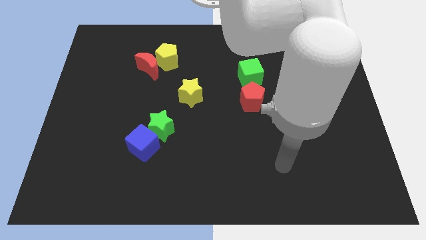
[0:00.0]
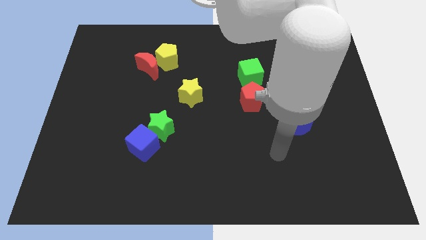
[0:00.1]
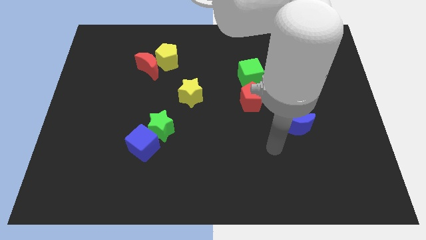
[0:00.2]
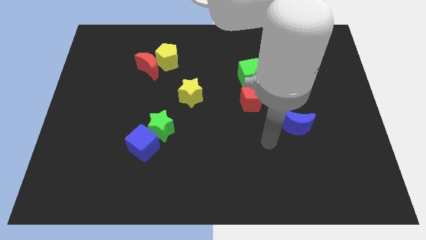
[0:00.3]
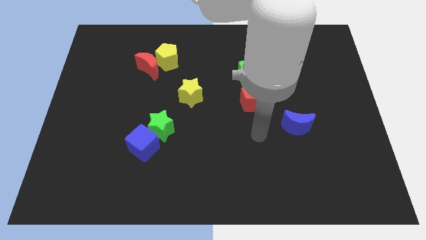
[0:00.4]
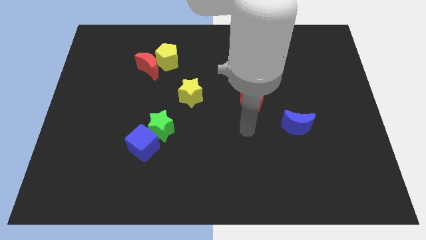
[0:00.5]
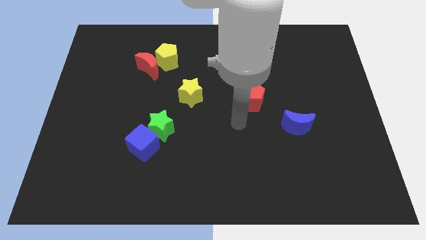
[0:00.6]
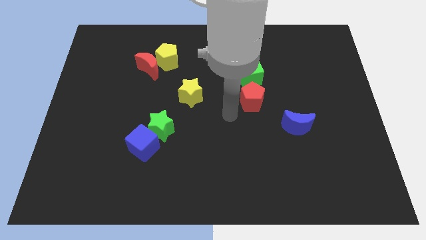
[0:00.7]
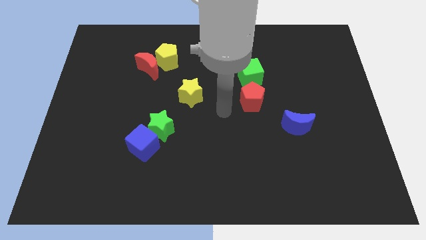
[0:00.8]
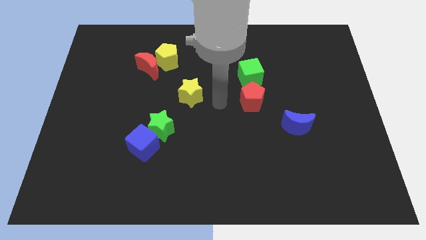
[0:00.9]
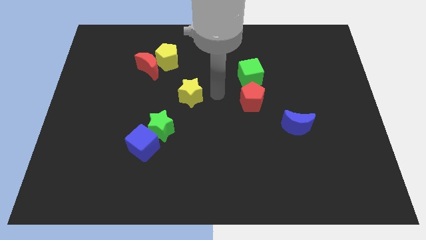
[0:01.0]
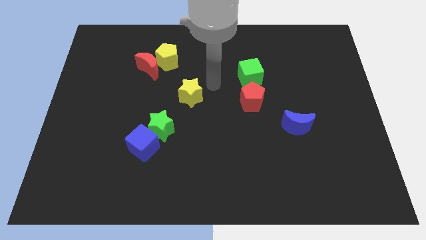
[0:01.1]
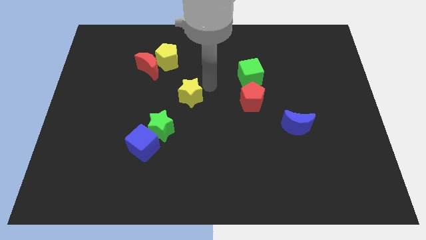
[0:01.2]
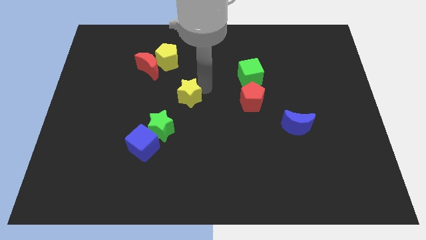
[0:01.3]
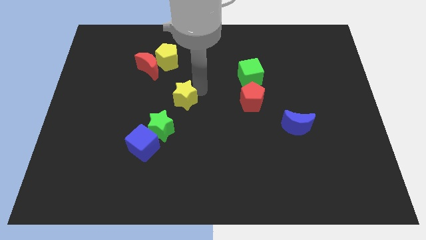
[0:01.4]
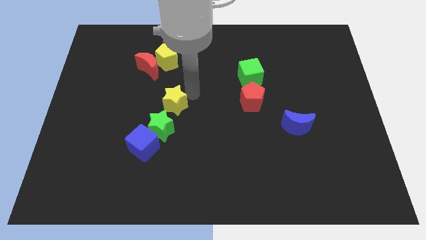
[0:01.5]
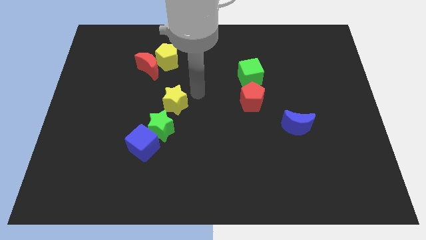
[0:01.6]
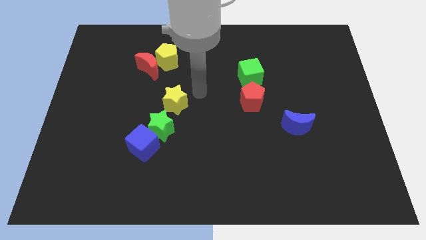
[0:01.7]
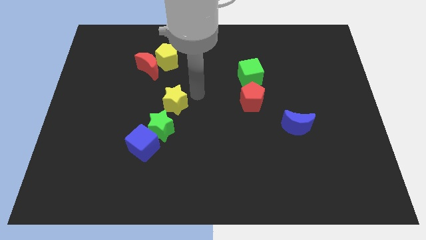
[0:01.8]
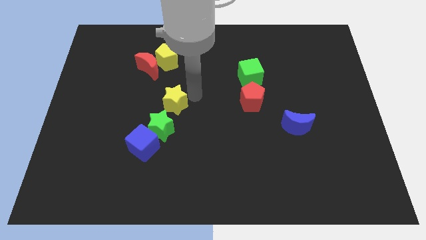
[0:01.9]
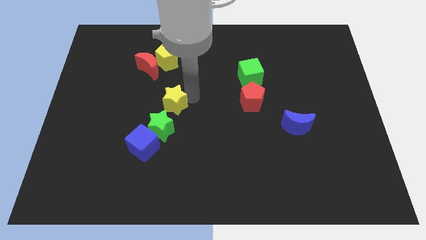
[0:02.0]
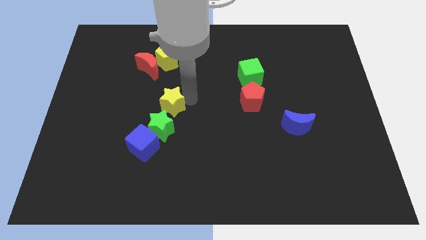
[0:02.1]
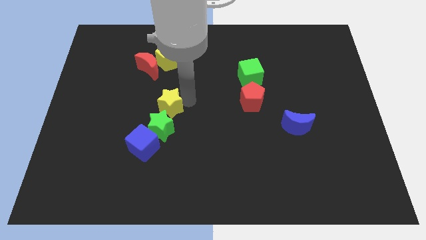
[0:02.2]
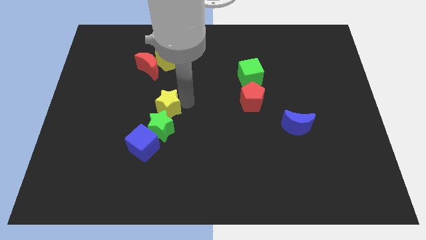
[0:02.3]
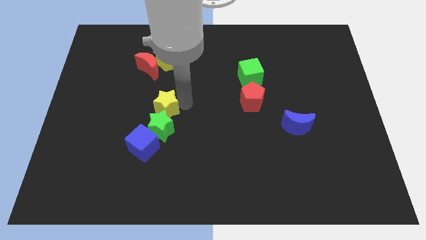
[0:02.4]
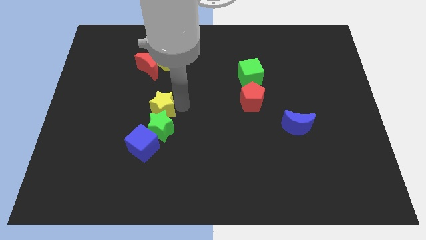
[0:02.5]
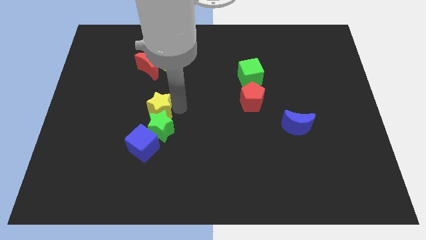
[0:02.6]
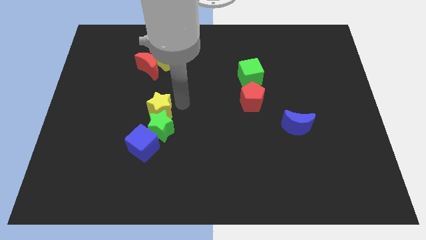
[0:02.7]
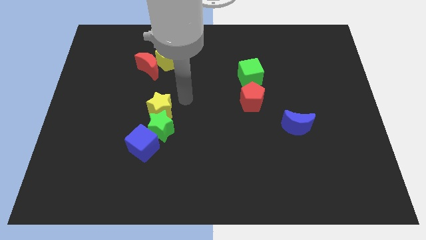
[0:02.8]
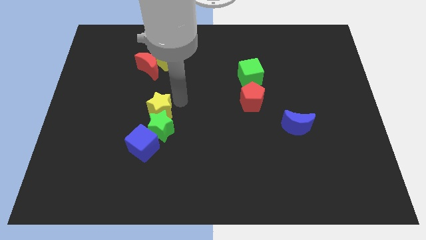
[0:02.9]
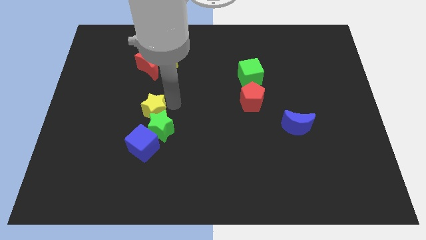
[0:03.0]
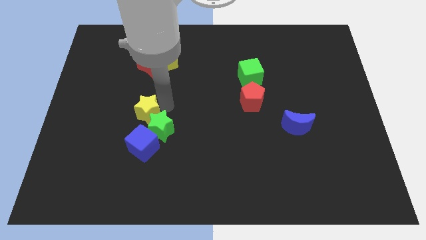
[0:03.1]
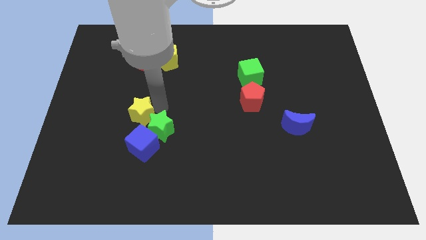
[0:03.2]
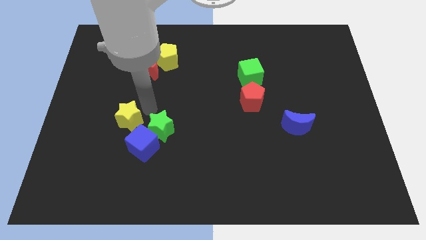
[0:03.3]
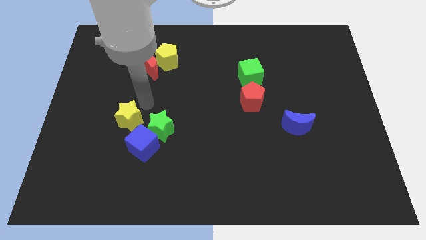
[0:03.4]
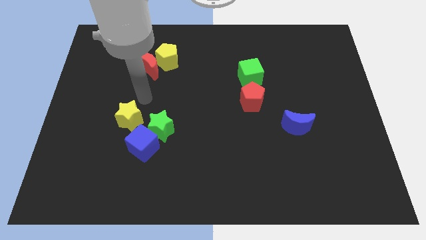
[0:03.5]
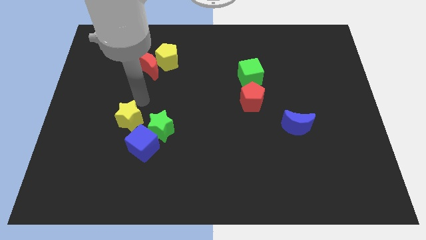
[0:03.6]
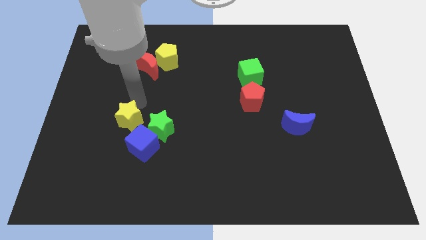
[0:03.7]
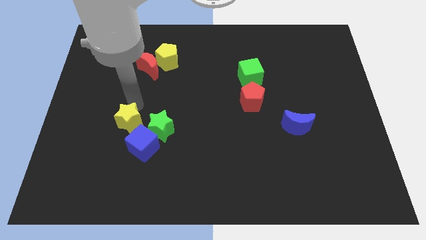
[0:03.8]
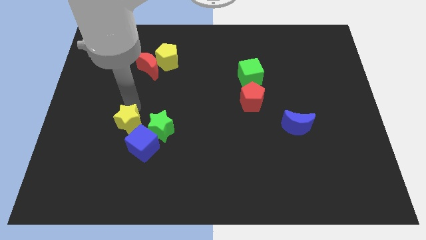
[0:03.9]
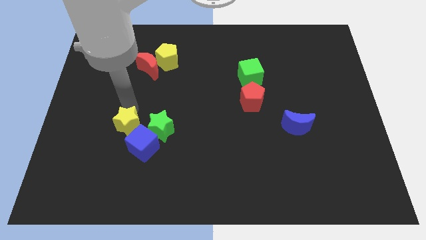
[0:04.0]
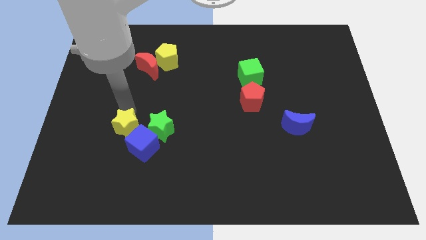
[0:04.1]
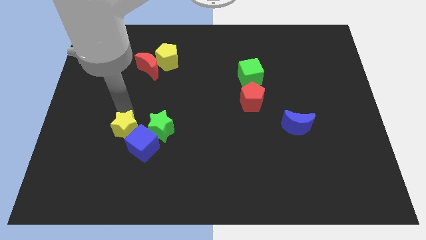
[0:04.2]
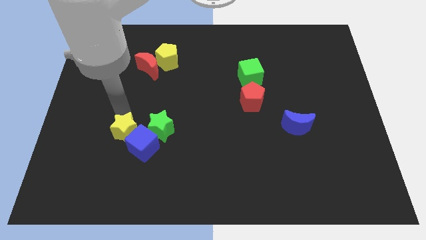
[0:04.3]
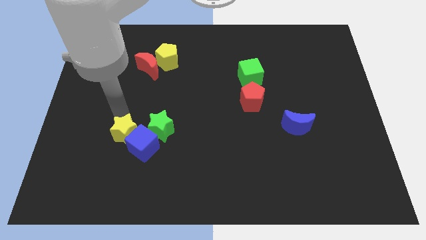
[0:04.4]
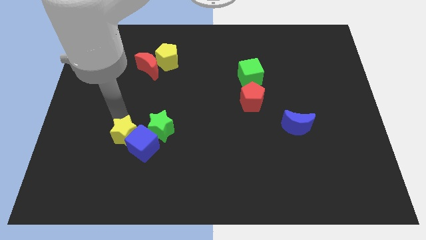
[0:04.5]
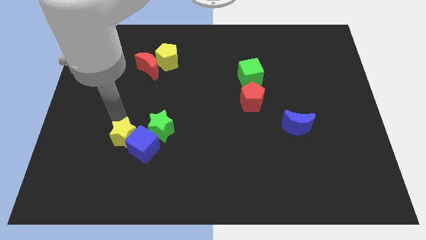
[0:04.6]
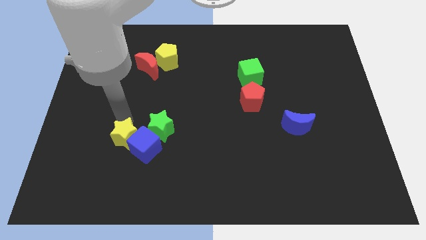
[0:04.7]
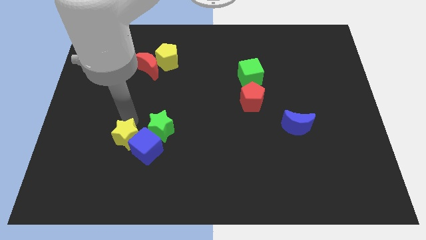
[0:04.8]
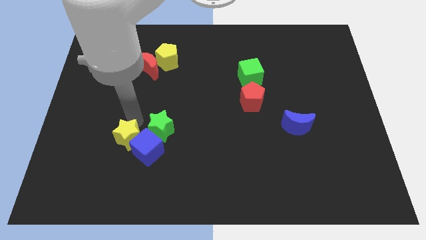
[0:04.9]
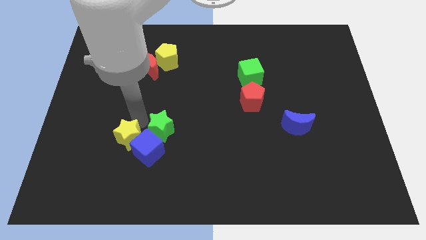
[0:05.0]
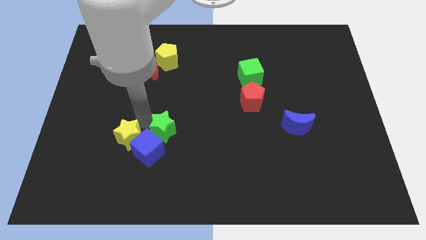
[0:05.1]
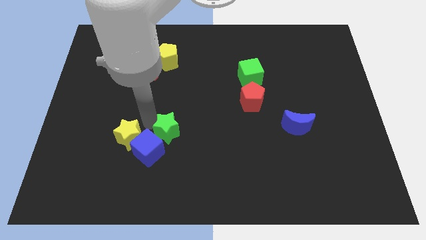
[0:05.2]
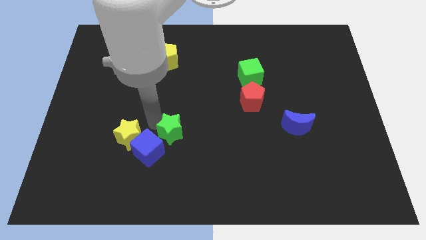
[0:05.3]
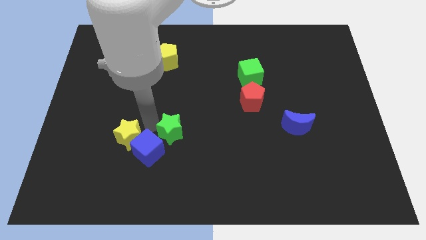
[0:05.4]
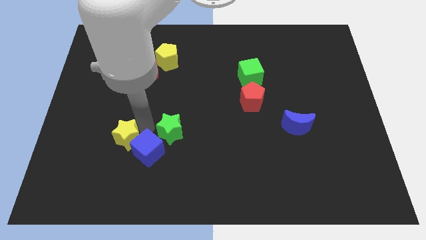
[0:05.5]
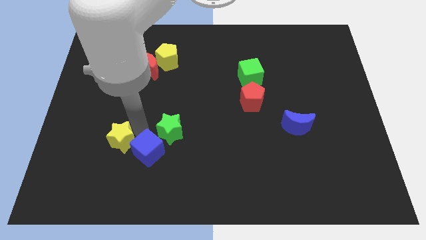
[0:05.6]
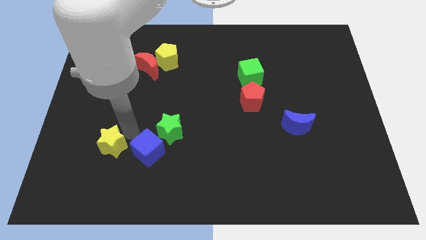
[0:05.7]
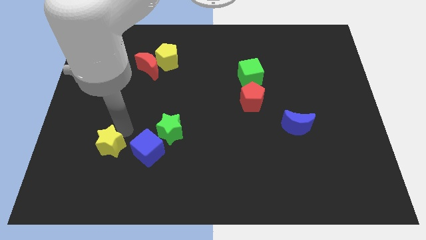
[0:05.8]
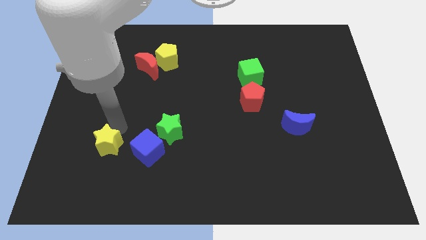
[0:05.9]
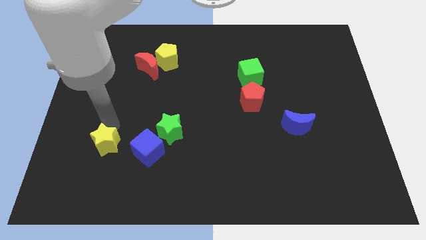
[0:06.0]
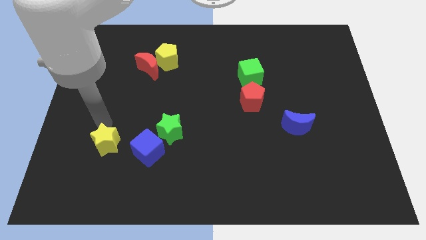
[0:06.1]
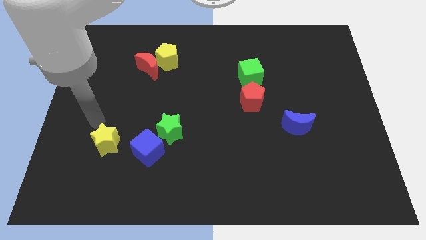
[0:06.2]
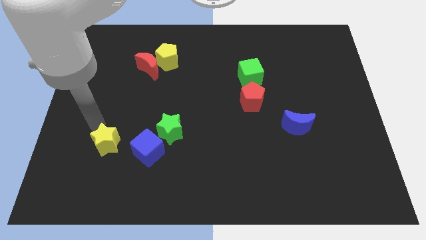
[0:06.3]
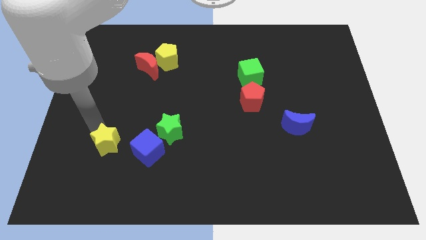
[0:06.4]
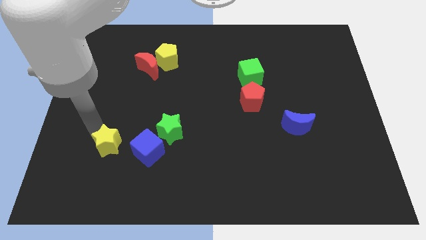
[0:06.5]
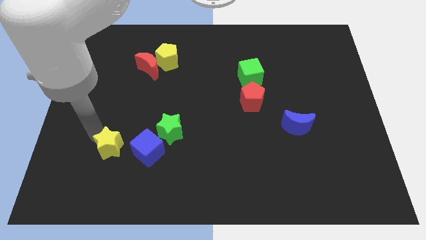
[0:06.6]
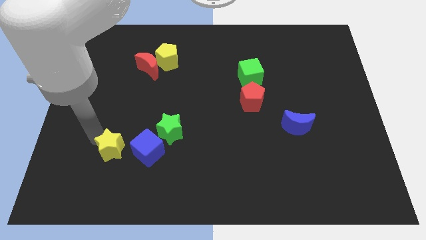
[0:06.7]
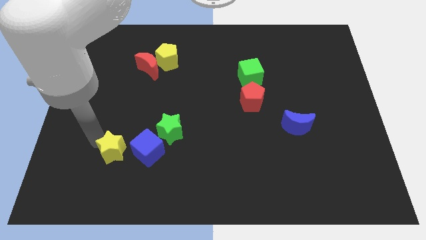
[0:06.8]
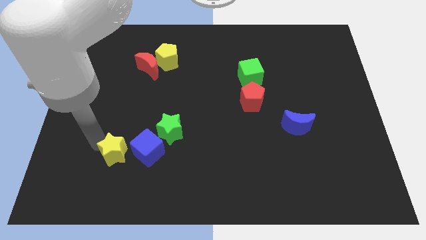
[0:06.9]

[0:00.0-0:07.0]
slide the yellow star diagonally down and to the left of the blue cube
